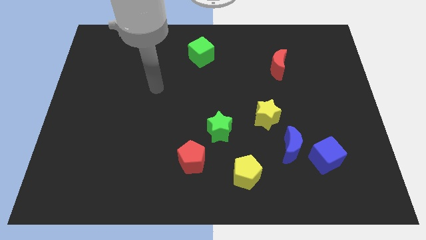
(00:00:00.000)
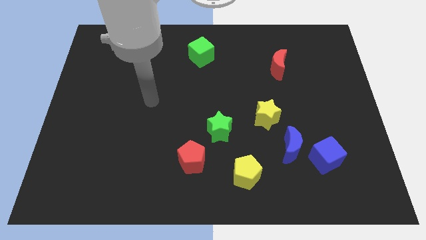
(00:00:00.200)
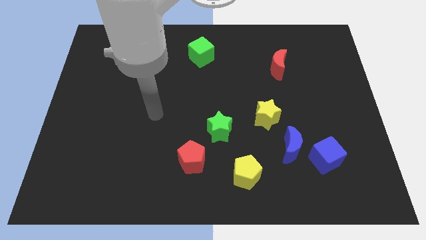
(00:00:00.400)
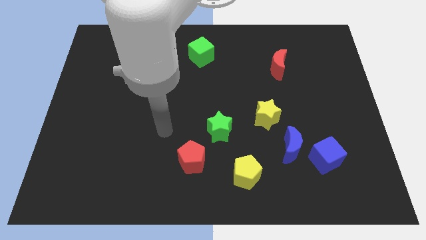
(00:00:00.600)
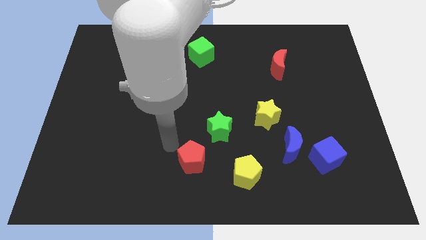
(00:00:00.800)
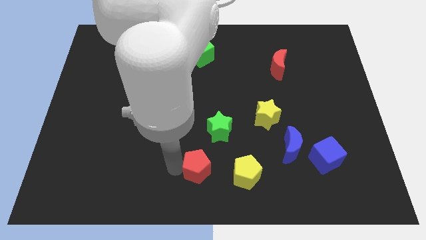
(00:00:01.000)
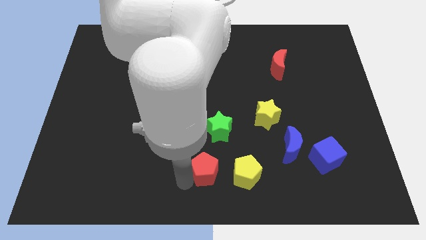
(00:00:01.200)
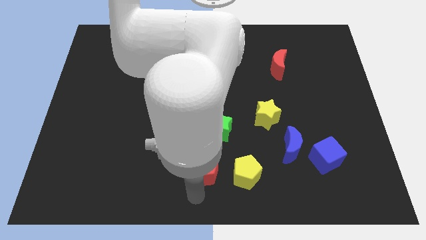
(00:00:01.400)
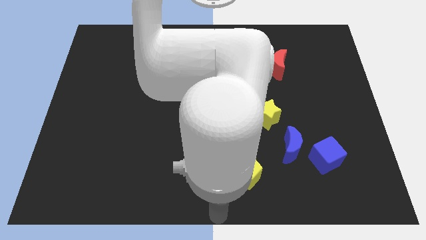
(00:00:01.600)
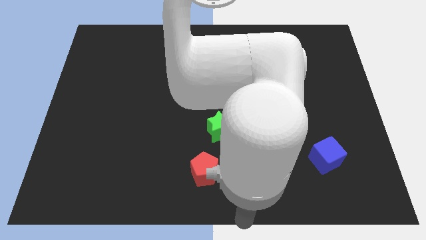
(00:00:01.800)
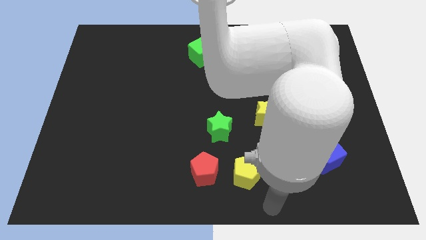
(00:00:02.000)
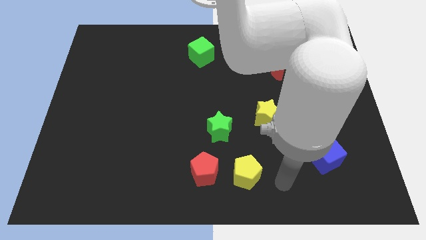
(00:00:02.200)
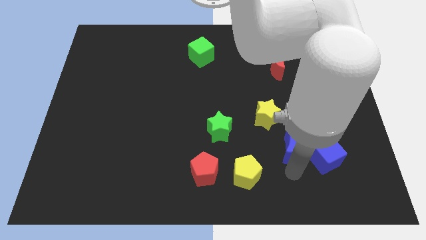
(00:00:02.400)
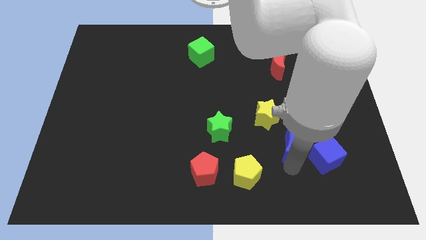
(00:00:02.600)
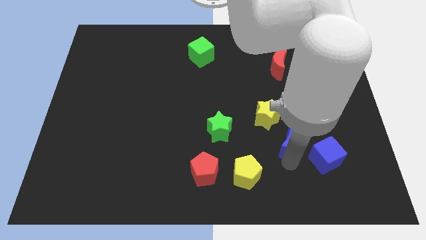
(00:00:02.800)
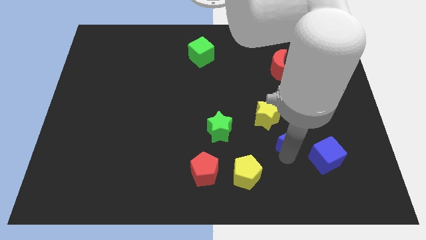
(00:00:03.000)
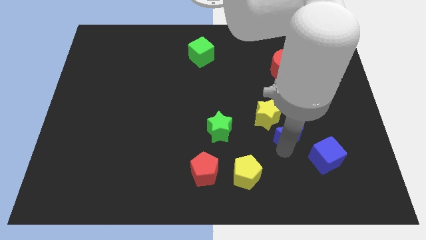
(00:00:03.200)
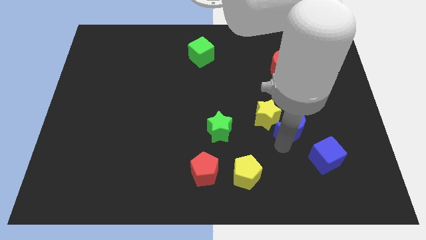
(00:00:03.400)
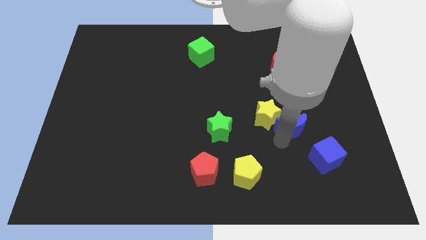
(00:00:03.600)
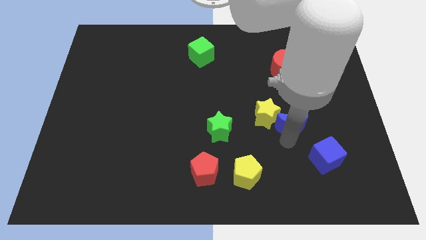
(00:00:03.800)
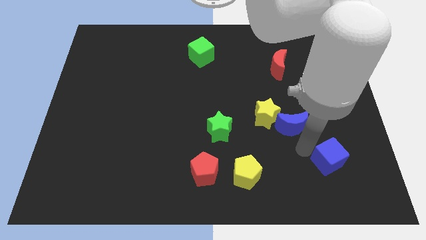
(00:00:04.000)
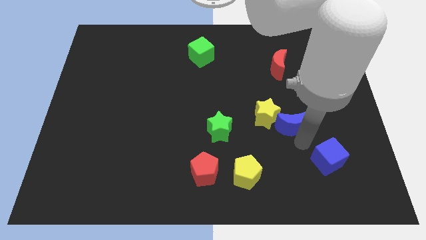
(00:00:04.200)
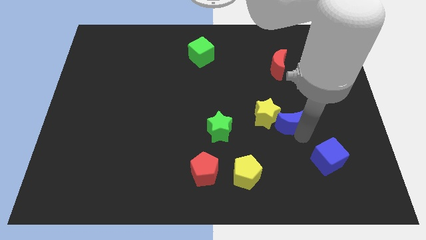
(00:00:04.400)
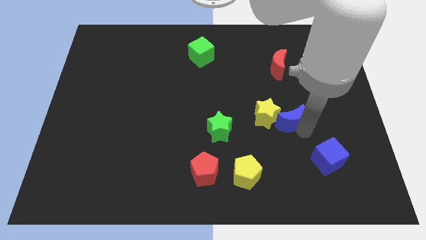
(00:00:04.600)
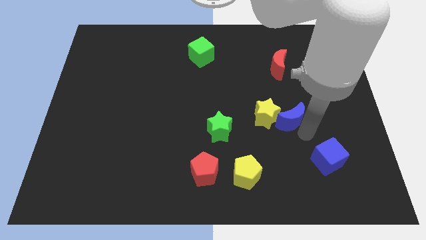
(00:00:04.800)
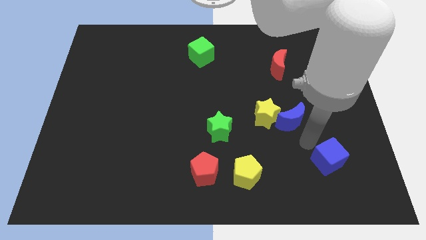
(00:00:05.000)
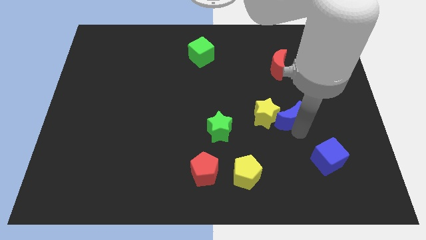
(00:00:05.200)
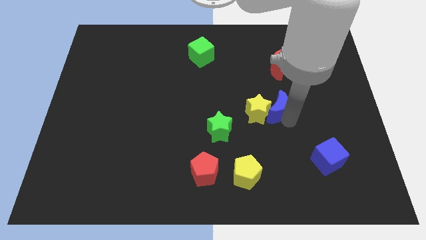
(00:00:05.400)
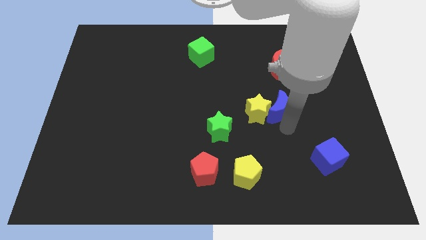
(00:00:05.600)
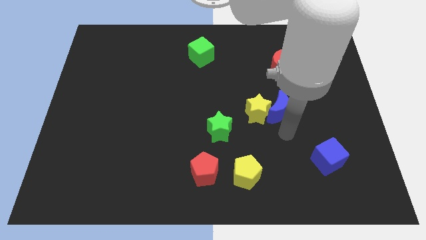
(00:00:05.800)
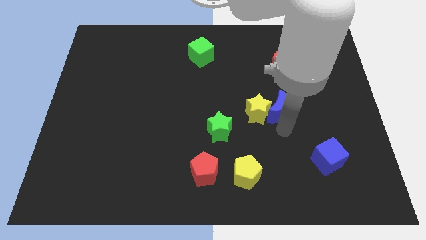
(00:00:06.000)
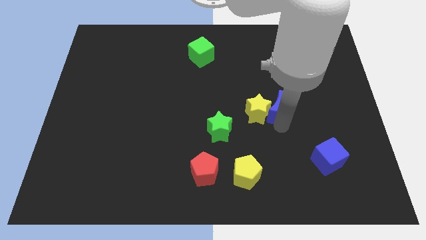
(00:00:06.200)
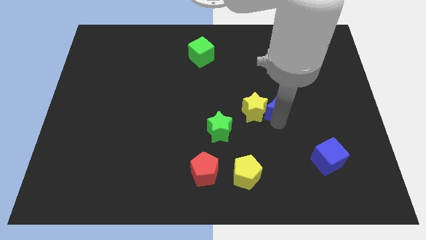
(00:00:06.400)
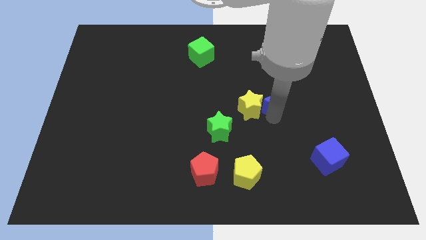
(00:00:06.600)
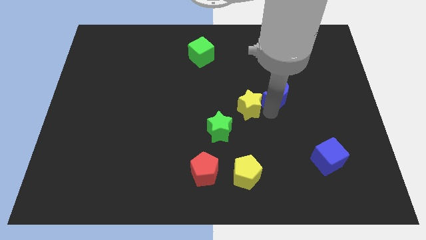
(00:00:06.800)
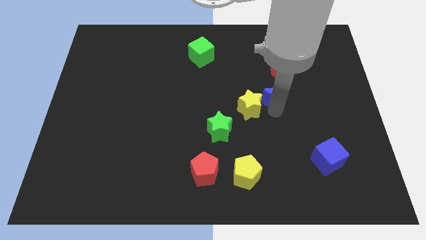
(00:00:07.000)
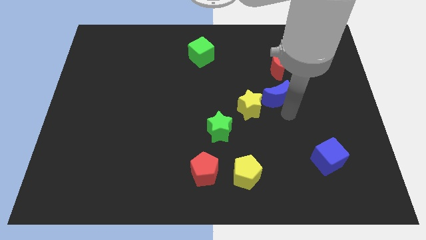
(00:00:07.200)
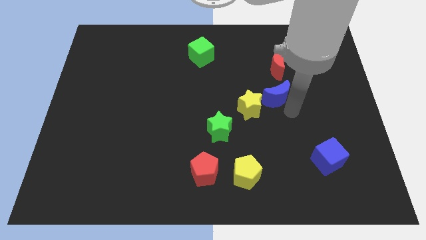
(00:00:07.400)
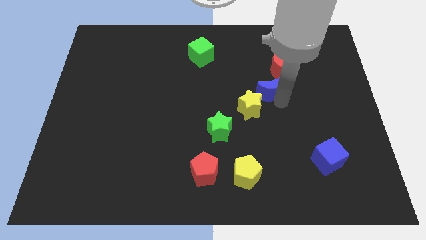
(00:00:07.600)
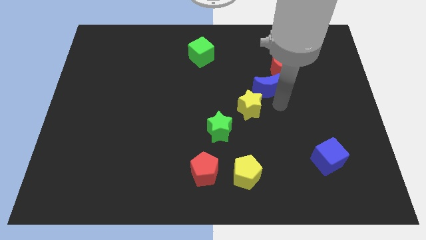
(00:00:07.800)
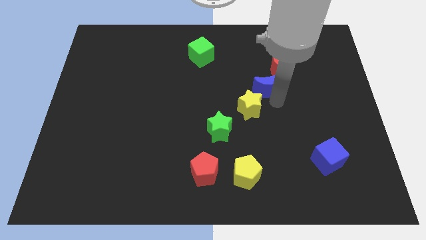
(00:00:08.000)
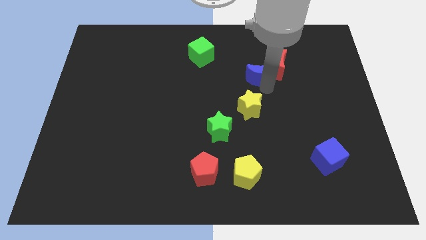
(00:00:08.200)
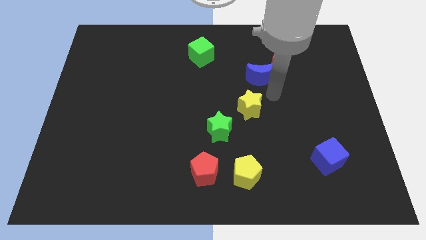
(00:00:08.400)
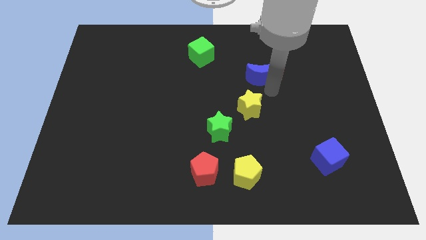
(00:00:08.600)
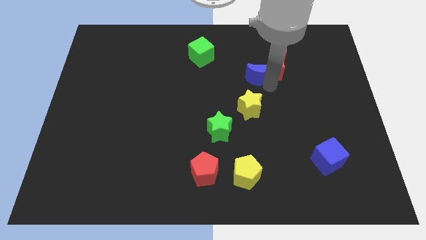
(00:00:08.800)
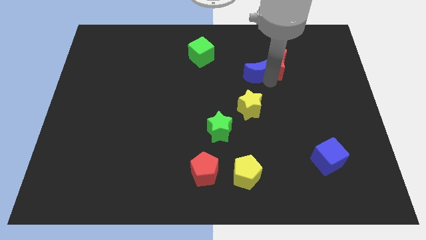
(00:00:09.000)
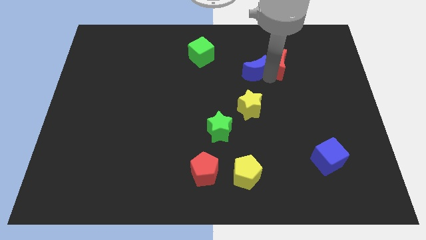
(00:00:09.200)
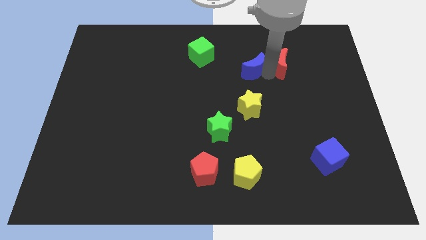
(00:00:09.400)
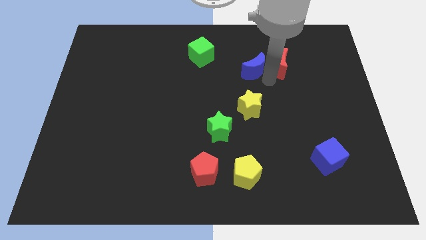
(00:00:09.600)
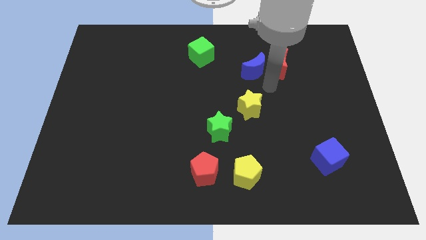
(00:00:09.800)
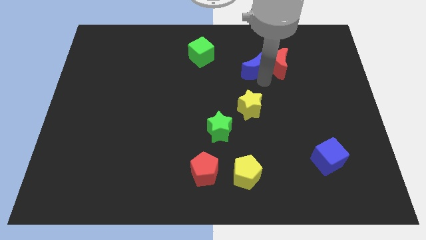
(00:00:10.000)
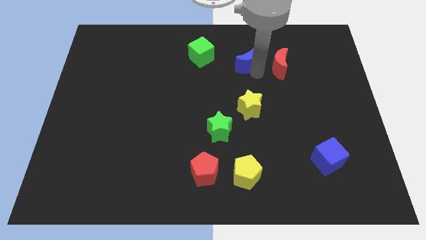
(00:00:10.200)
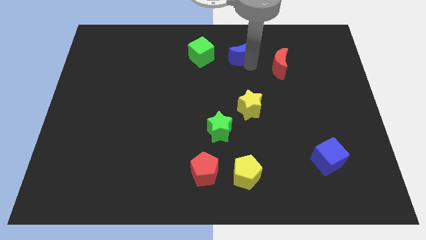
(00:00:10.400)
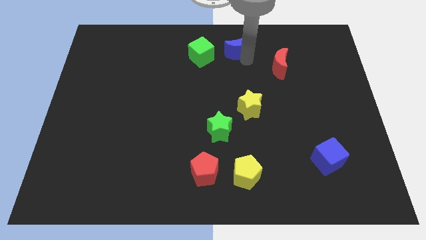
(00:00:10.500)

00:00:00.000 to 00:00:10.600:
push the blue moon to the top

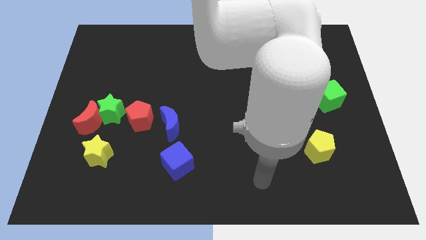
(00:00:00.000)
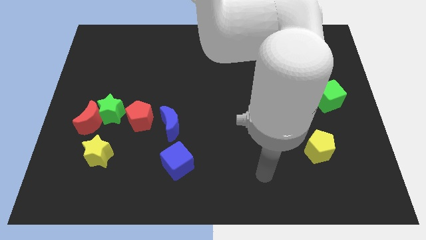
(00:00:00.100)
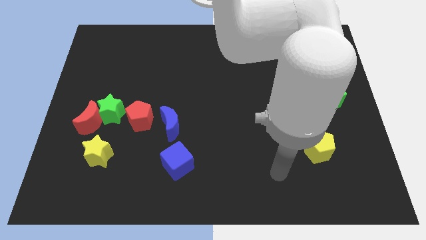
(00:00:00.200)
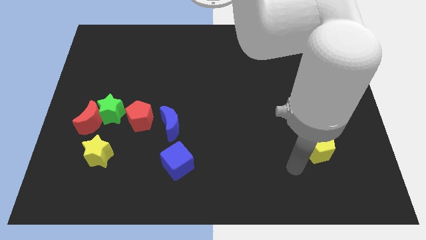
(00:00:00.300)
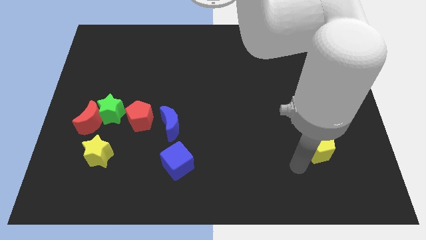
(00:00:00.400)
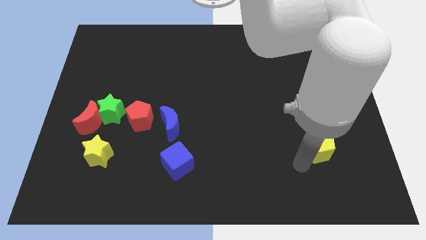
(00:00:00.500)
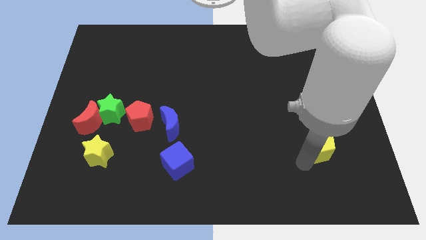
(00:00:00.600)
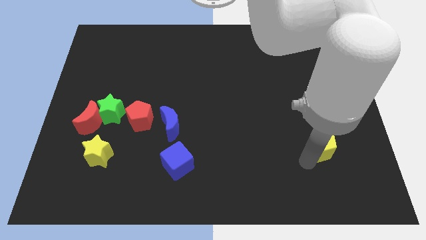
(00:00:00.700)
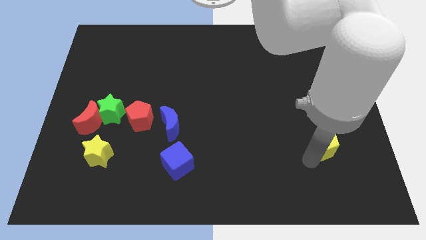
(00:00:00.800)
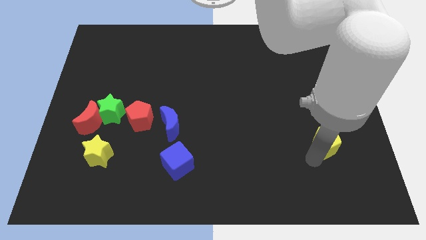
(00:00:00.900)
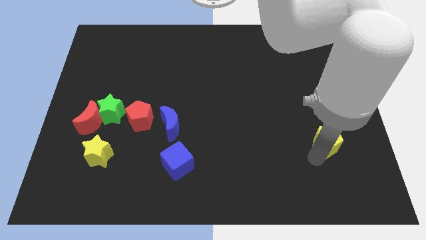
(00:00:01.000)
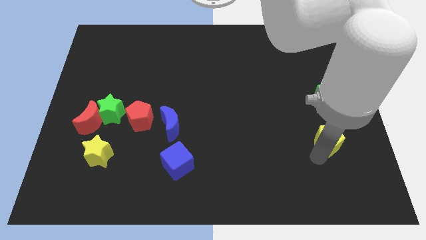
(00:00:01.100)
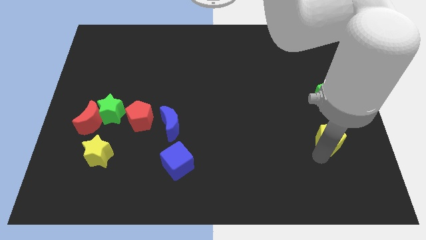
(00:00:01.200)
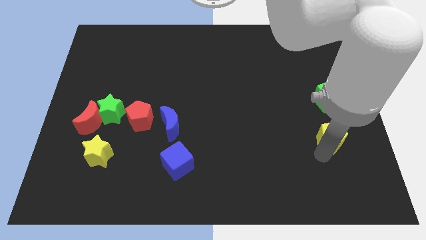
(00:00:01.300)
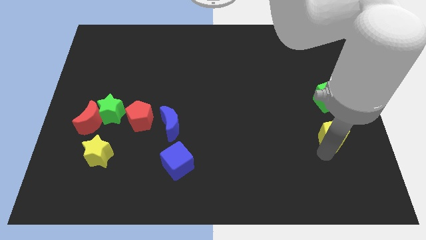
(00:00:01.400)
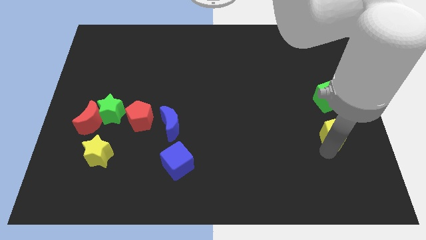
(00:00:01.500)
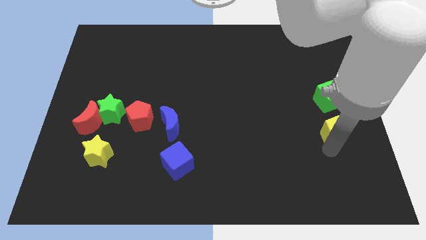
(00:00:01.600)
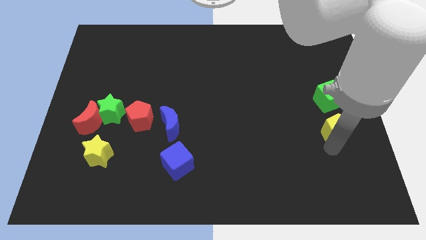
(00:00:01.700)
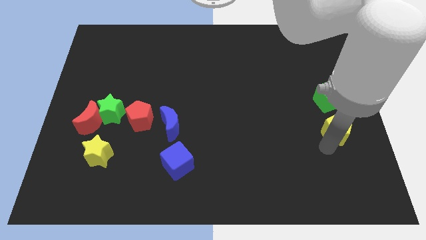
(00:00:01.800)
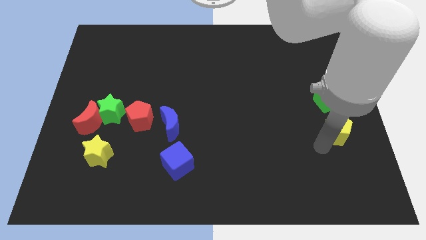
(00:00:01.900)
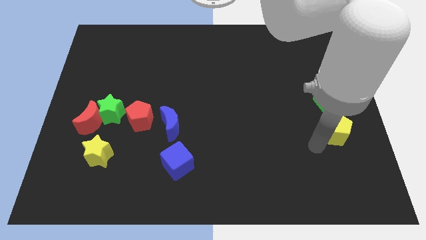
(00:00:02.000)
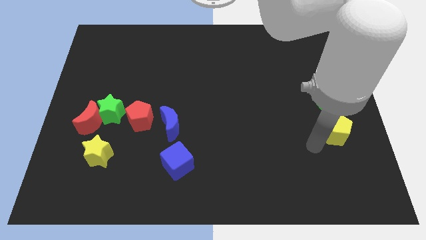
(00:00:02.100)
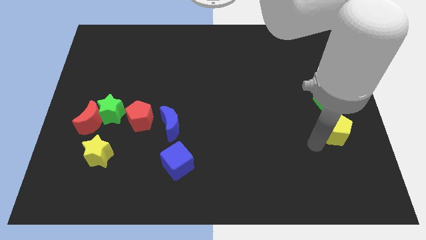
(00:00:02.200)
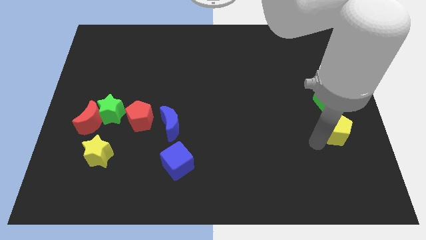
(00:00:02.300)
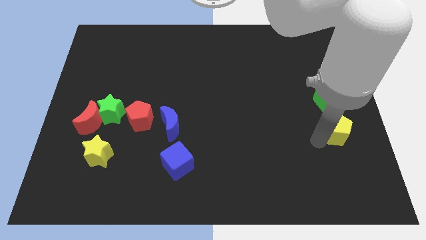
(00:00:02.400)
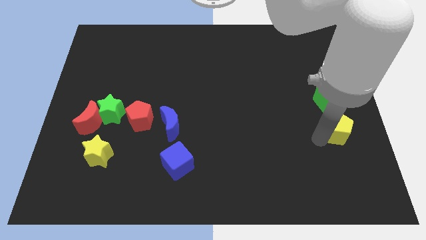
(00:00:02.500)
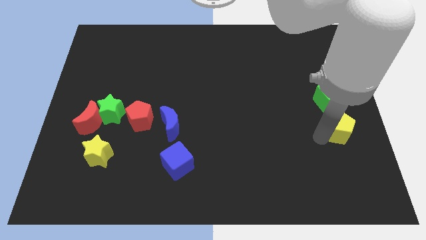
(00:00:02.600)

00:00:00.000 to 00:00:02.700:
put the yellow pentagon to the center right
